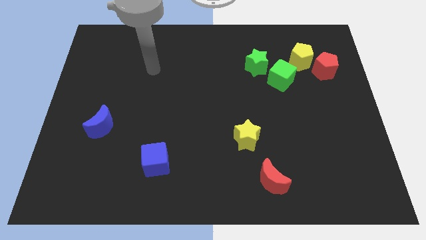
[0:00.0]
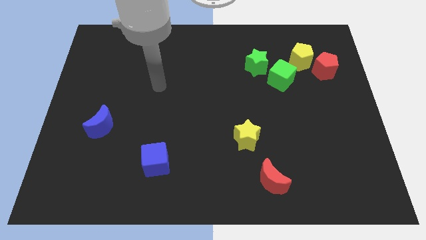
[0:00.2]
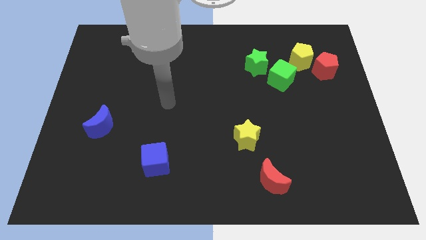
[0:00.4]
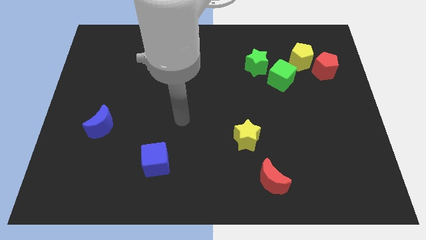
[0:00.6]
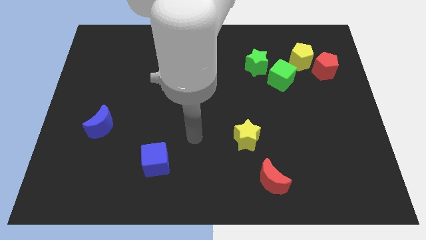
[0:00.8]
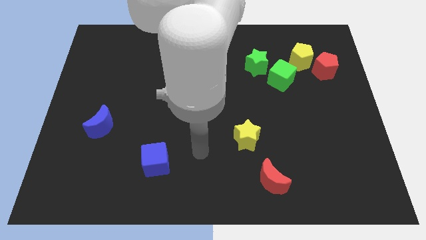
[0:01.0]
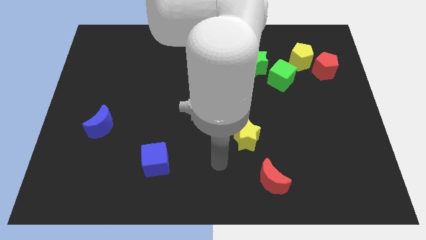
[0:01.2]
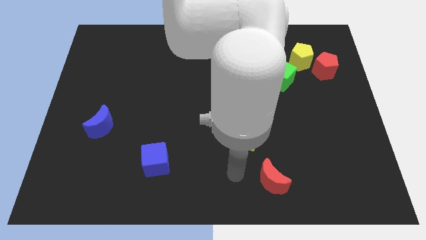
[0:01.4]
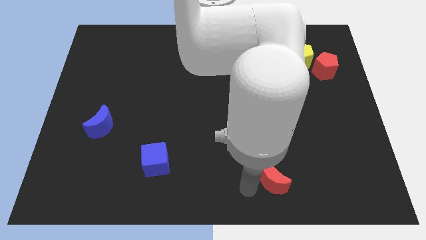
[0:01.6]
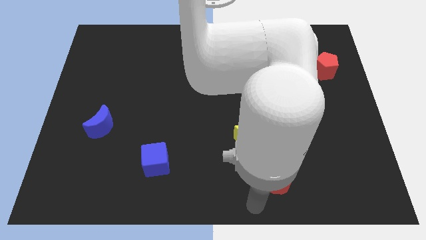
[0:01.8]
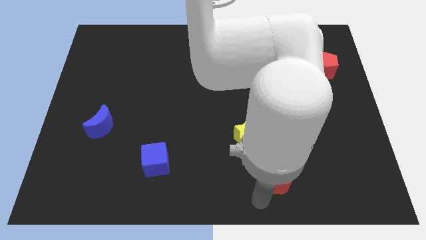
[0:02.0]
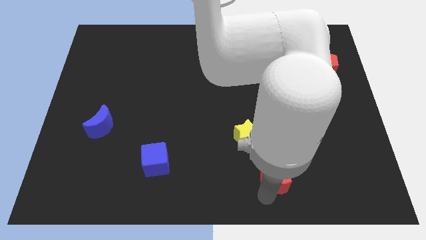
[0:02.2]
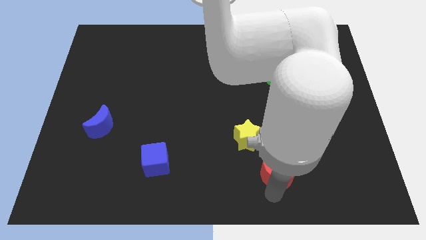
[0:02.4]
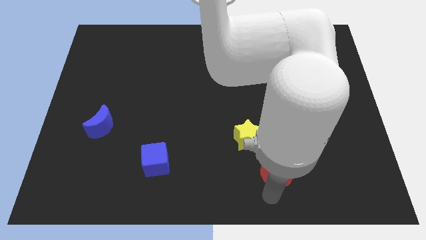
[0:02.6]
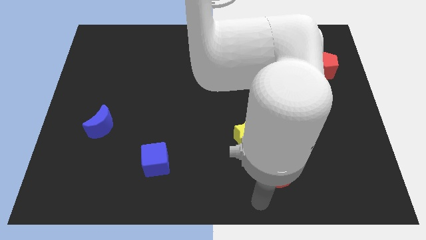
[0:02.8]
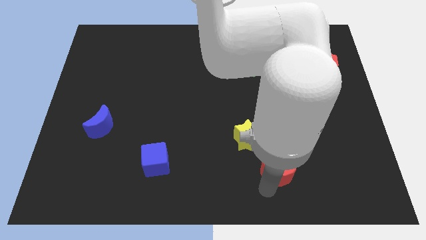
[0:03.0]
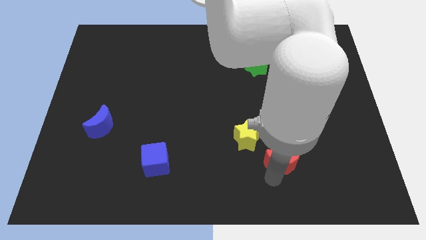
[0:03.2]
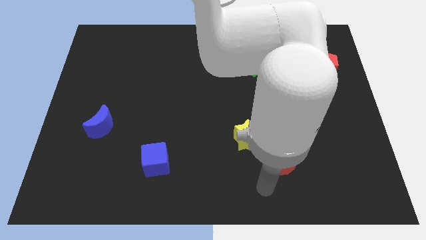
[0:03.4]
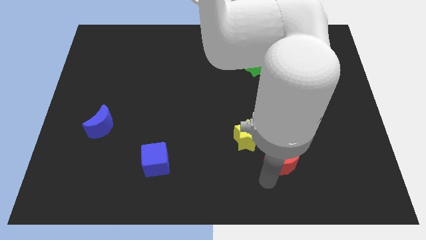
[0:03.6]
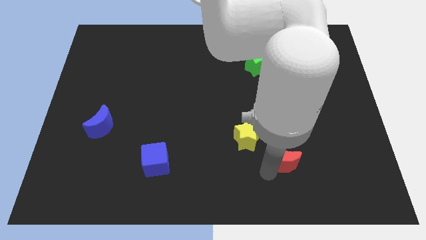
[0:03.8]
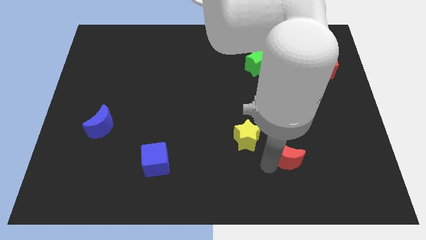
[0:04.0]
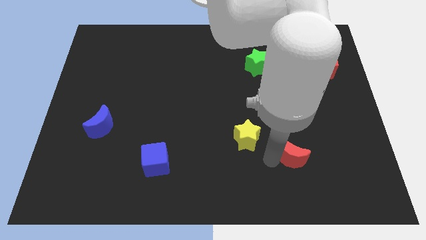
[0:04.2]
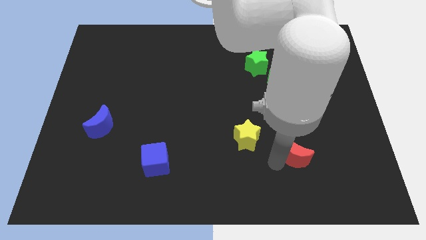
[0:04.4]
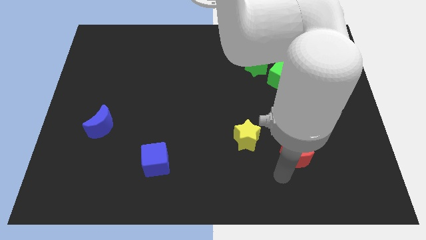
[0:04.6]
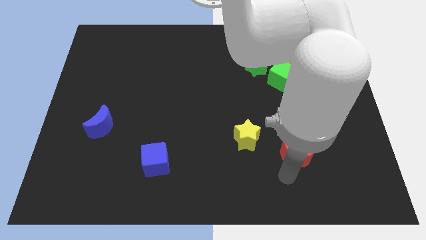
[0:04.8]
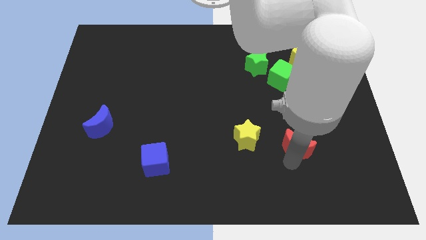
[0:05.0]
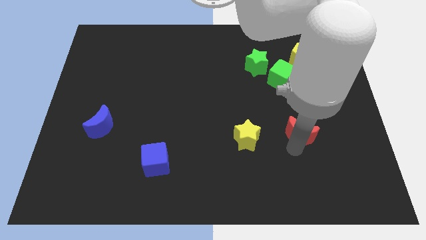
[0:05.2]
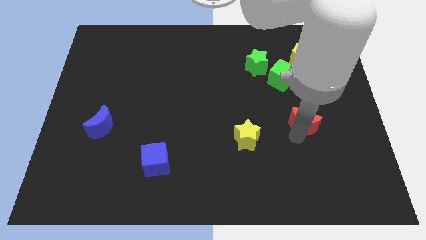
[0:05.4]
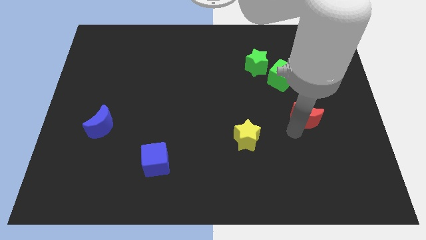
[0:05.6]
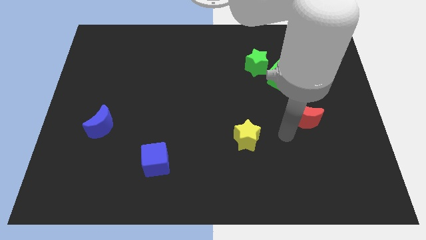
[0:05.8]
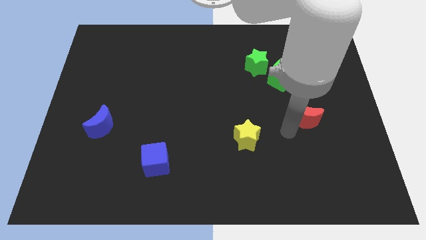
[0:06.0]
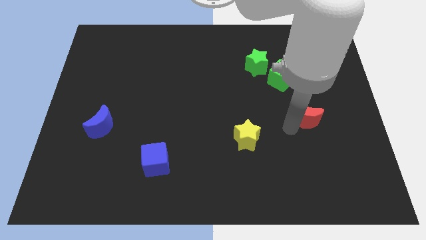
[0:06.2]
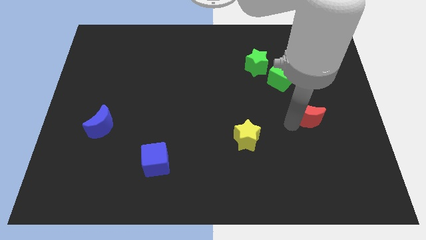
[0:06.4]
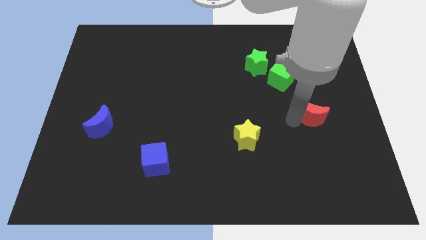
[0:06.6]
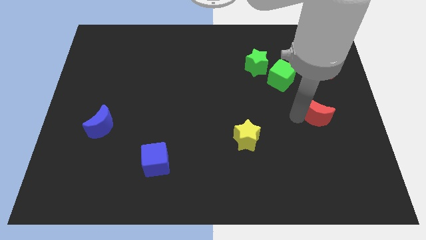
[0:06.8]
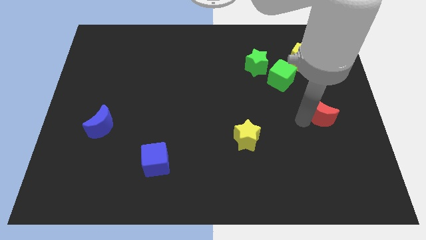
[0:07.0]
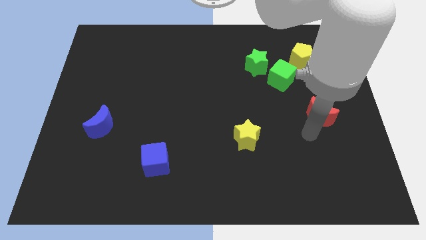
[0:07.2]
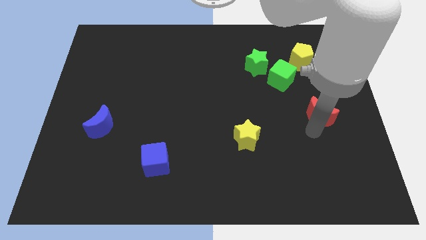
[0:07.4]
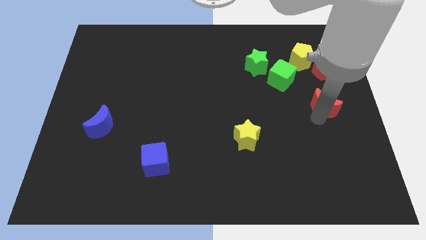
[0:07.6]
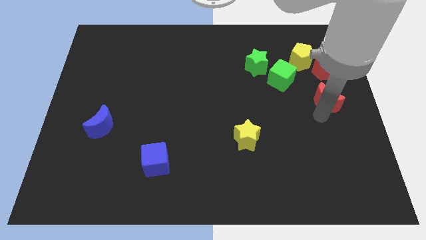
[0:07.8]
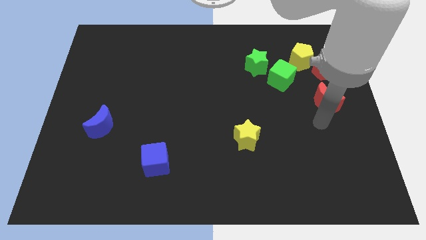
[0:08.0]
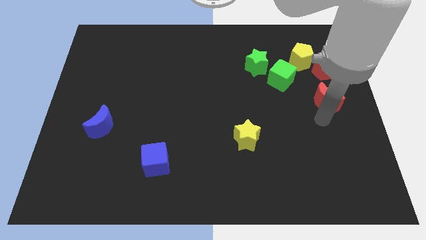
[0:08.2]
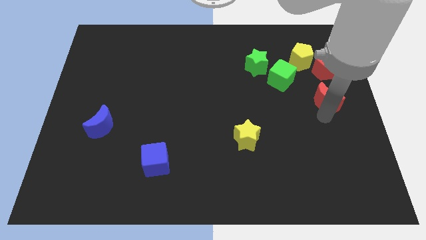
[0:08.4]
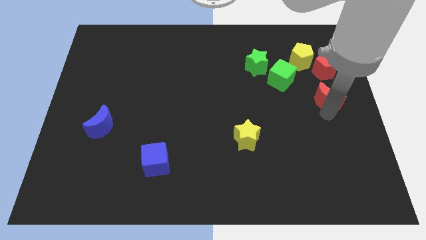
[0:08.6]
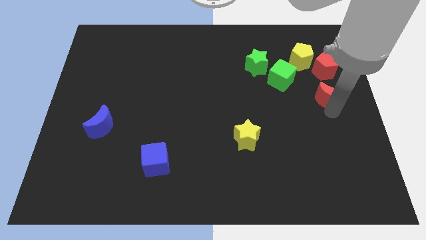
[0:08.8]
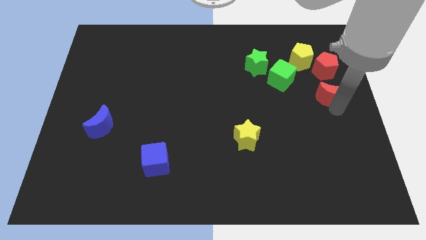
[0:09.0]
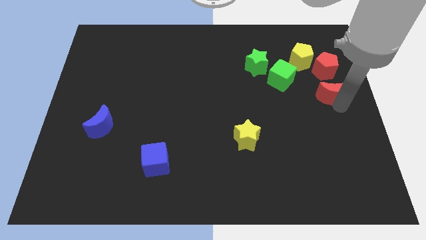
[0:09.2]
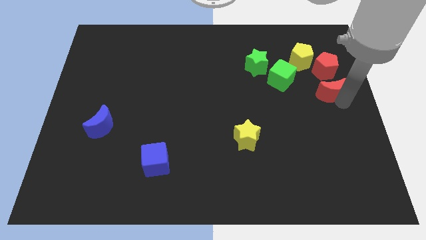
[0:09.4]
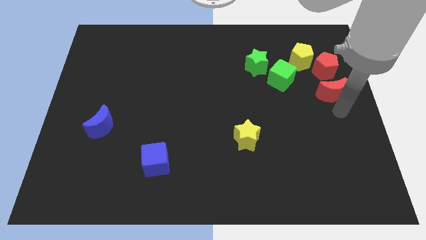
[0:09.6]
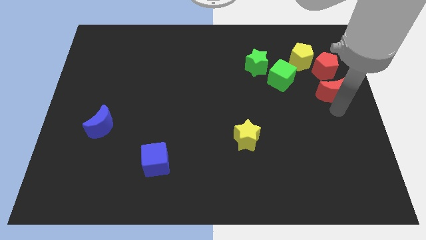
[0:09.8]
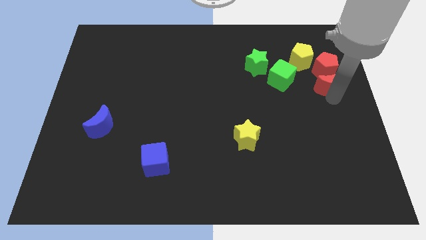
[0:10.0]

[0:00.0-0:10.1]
push the red moon to the bottom right of the yellow pentagon

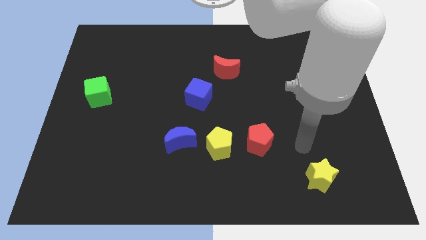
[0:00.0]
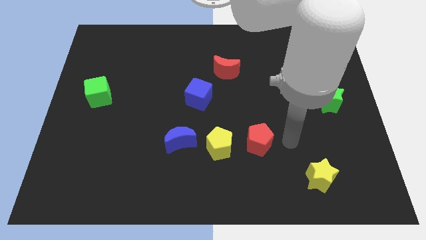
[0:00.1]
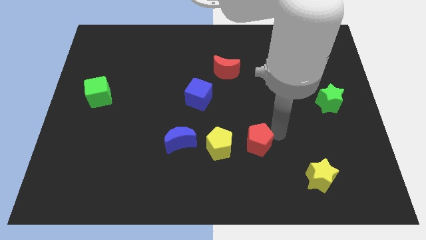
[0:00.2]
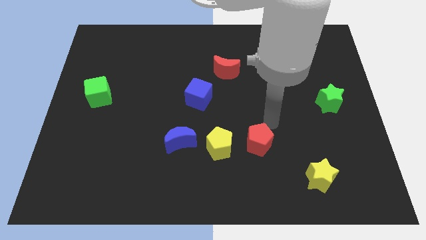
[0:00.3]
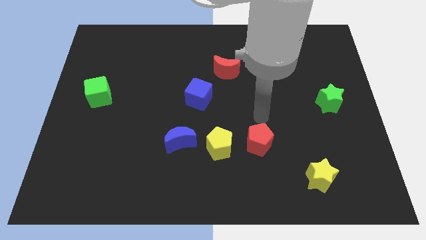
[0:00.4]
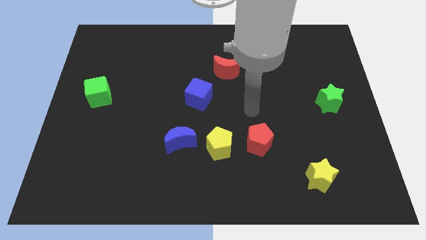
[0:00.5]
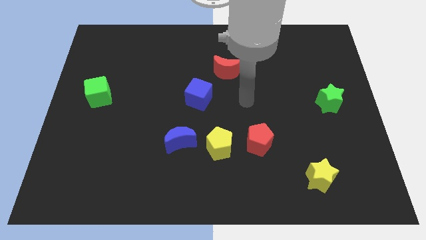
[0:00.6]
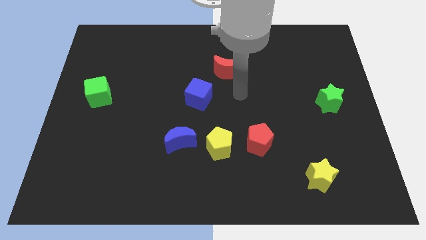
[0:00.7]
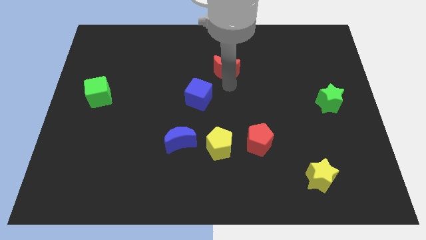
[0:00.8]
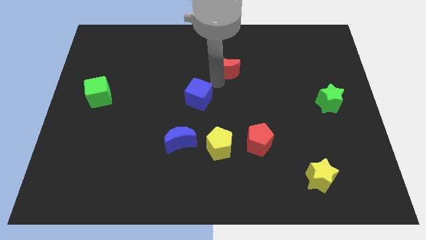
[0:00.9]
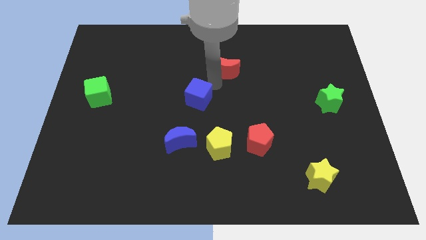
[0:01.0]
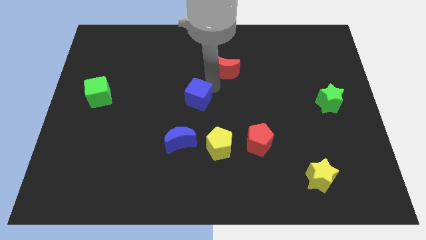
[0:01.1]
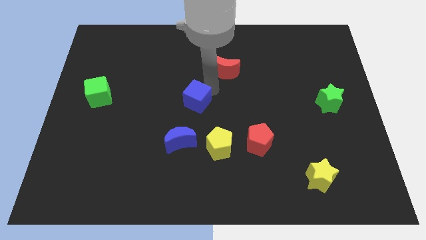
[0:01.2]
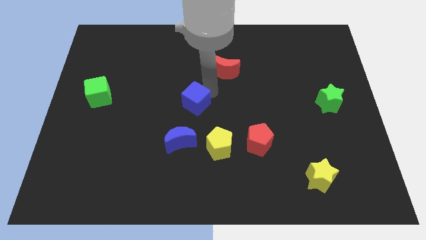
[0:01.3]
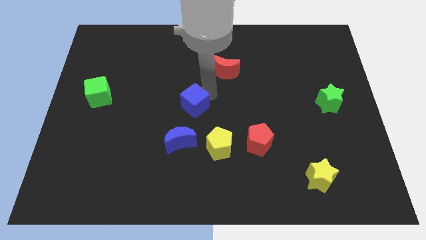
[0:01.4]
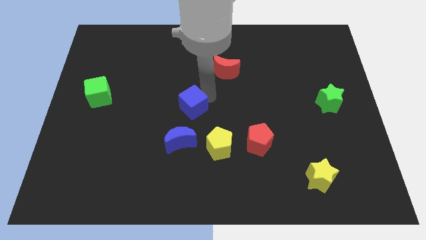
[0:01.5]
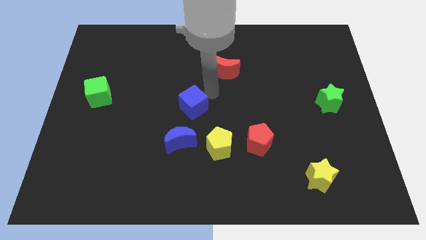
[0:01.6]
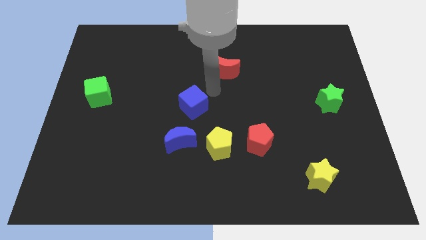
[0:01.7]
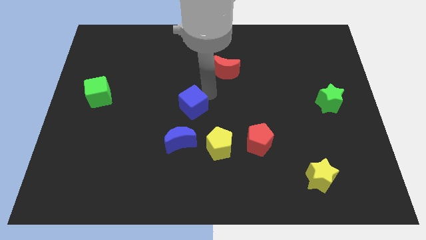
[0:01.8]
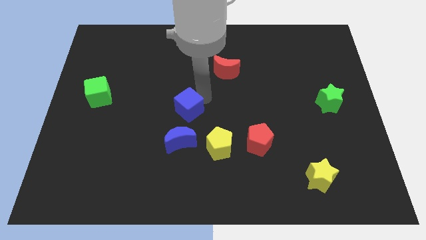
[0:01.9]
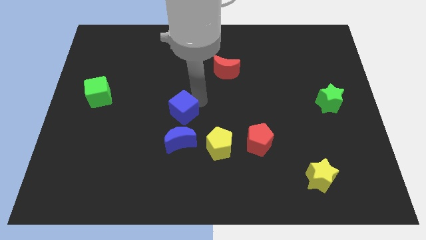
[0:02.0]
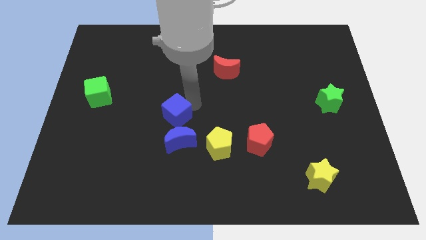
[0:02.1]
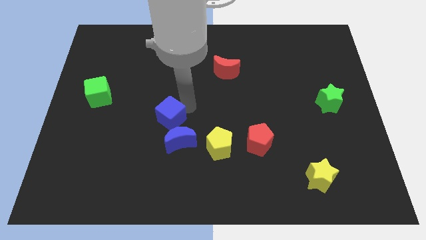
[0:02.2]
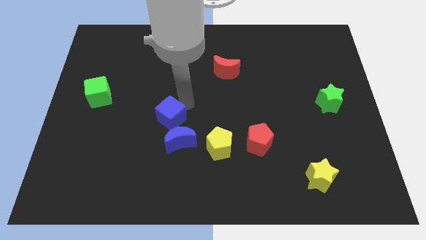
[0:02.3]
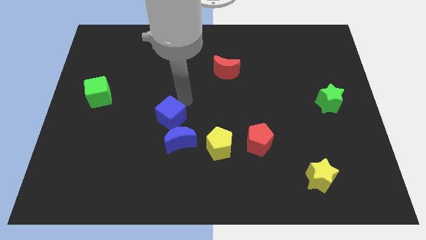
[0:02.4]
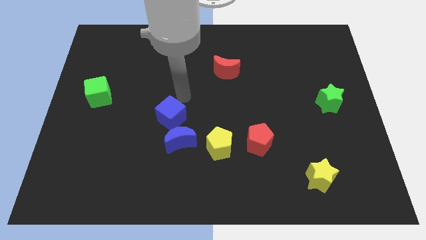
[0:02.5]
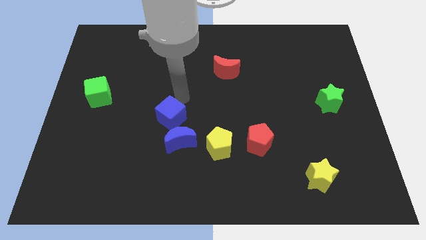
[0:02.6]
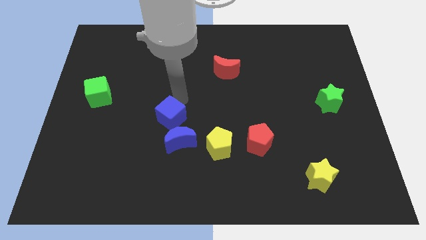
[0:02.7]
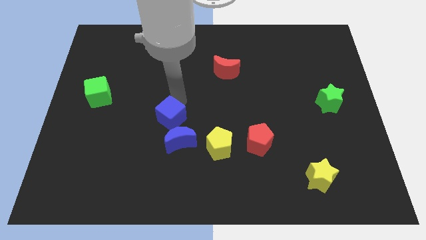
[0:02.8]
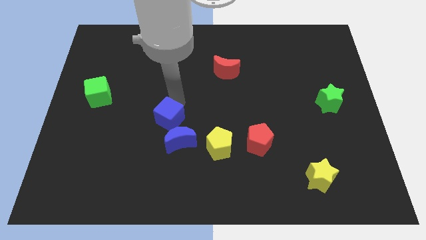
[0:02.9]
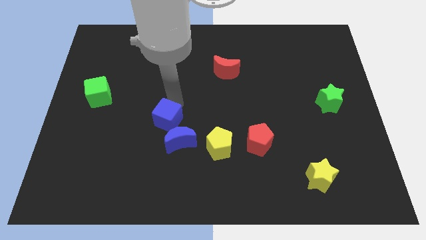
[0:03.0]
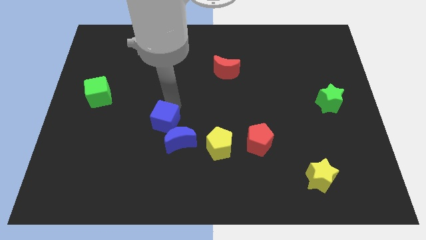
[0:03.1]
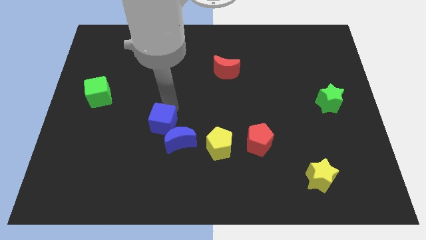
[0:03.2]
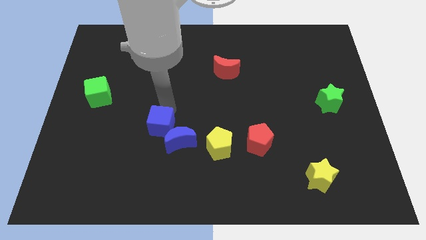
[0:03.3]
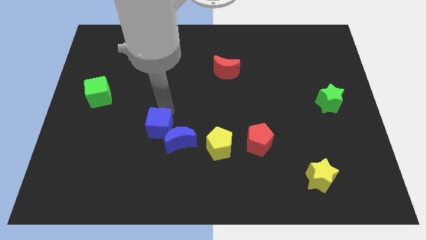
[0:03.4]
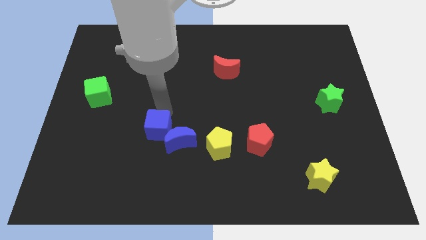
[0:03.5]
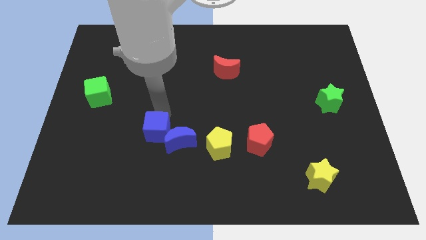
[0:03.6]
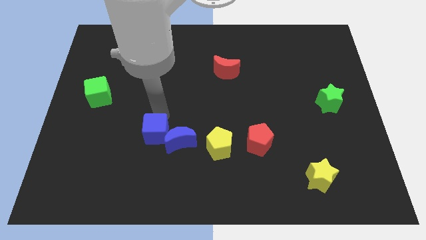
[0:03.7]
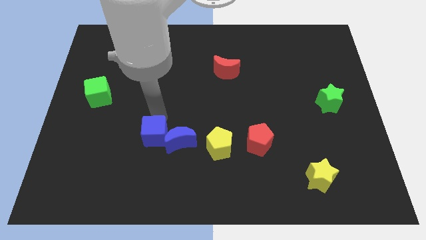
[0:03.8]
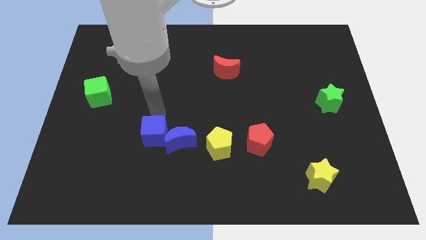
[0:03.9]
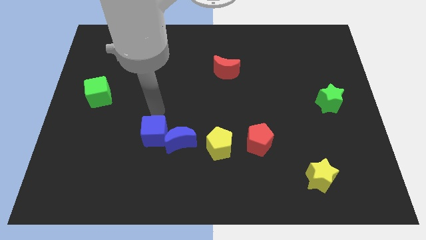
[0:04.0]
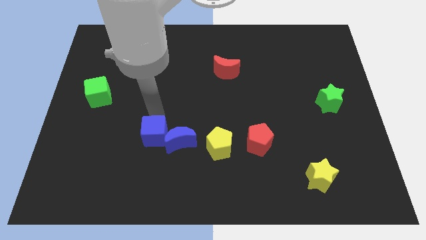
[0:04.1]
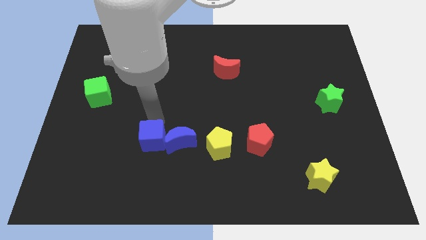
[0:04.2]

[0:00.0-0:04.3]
slide the blue cube to the bottom left of the blue moon
